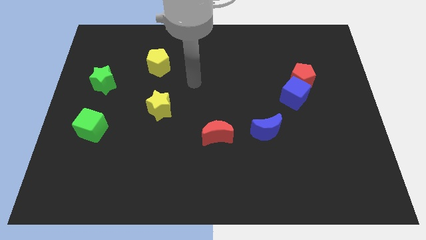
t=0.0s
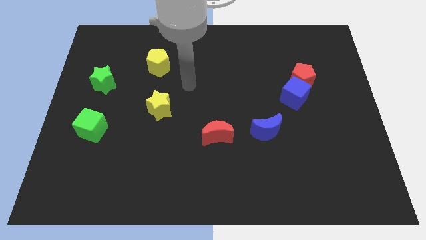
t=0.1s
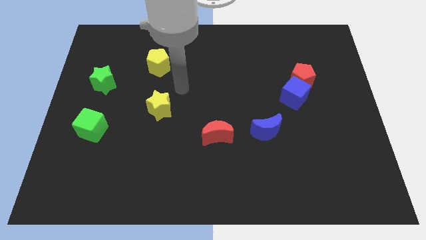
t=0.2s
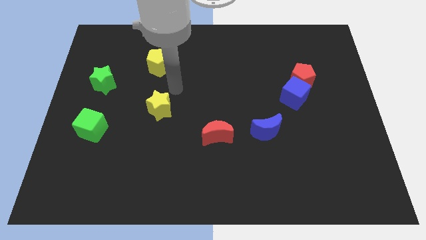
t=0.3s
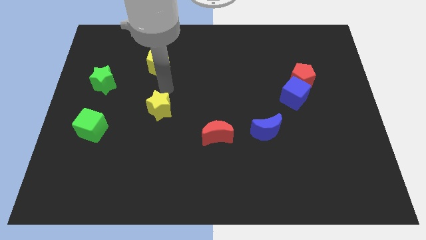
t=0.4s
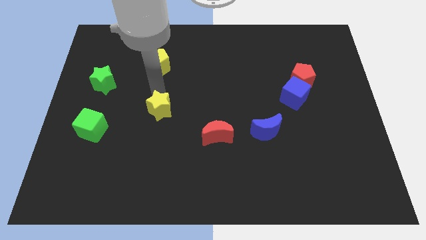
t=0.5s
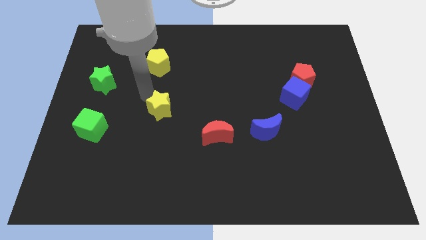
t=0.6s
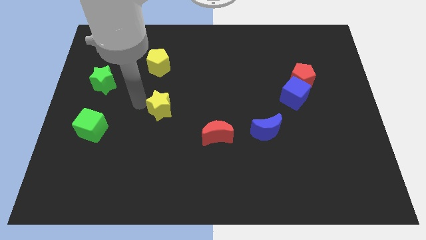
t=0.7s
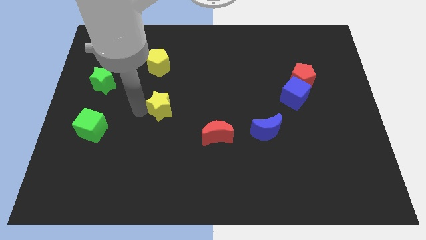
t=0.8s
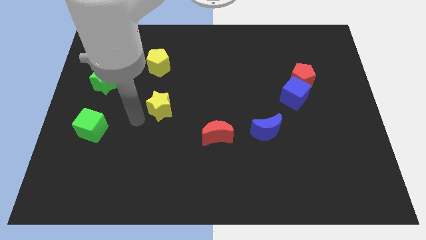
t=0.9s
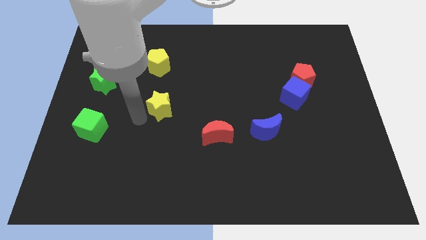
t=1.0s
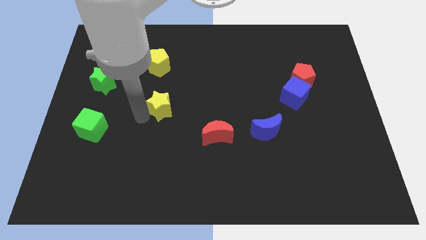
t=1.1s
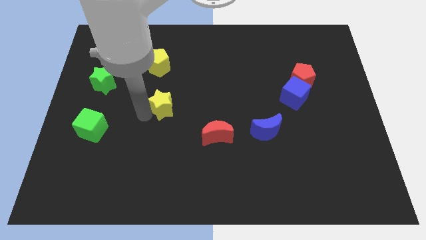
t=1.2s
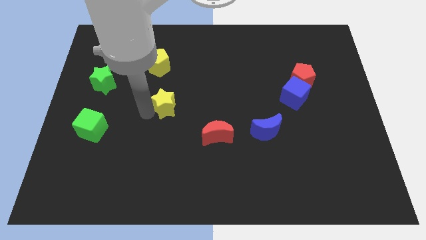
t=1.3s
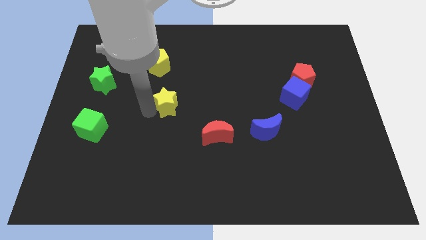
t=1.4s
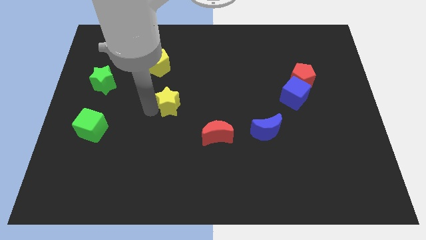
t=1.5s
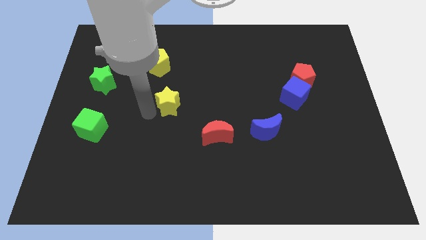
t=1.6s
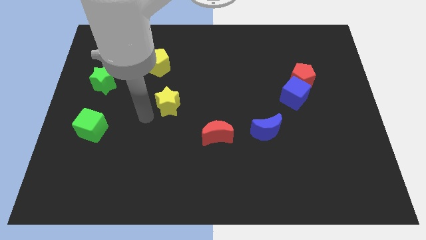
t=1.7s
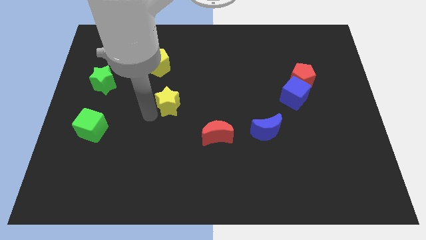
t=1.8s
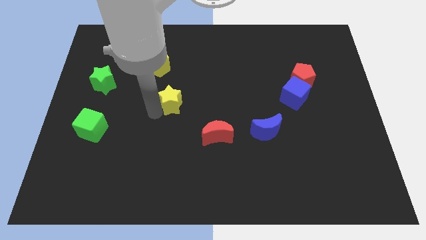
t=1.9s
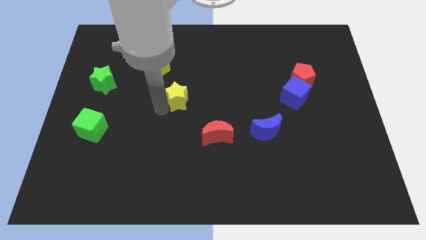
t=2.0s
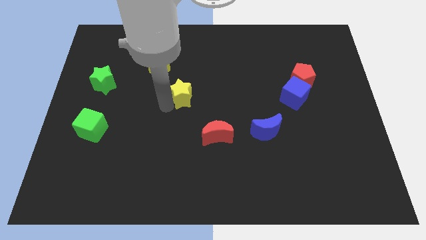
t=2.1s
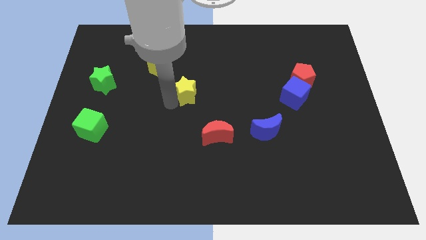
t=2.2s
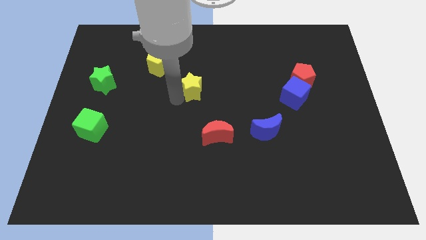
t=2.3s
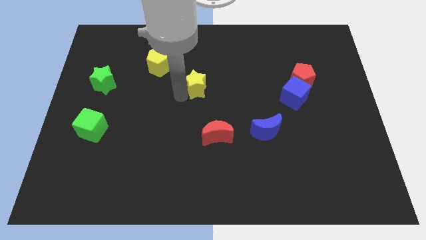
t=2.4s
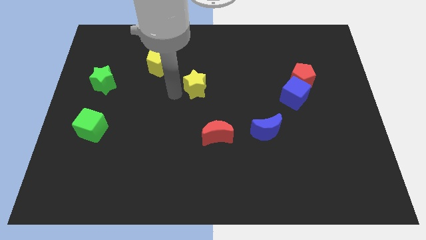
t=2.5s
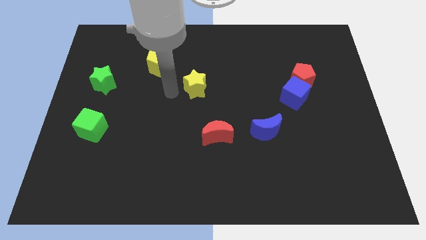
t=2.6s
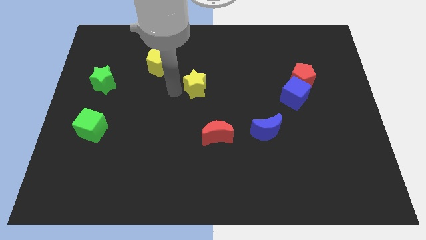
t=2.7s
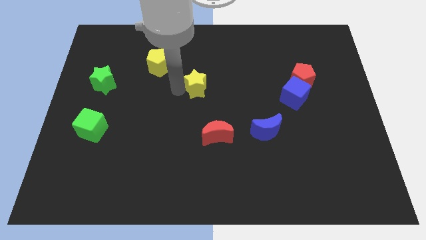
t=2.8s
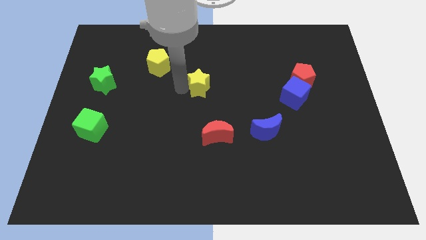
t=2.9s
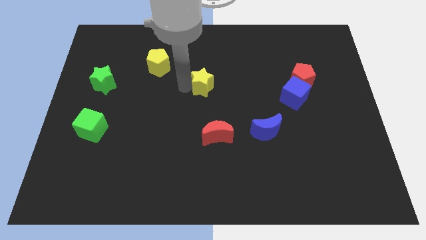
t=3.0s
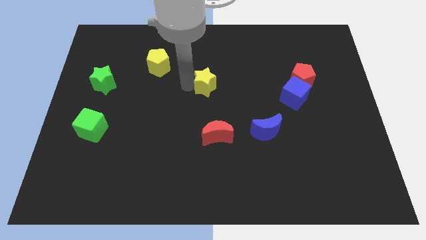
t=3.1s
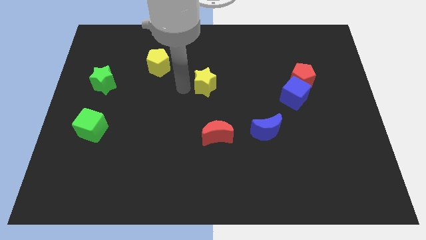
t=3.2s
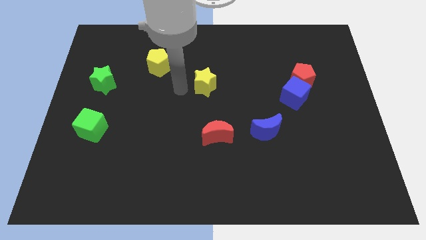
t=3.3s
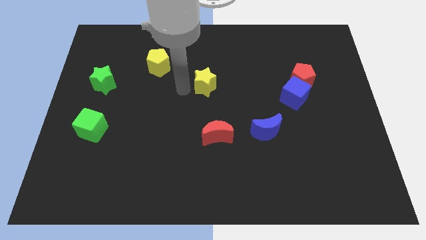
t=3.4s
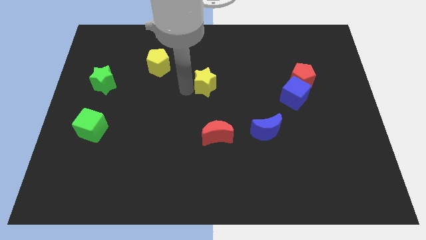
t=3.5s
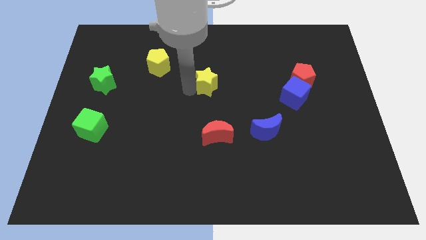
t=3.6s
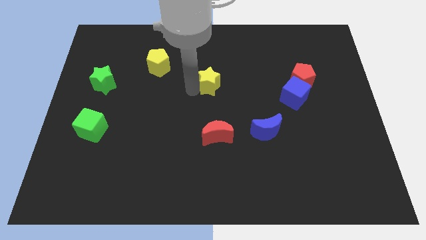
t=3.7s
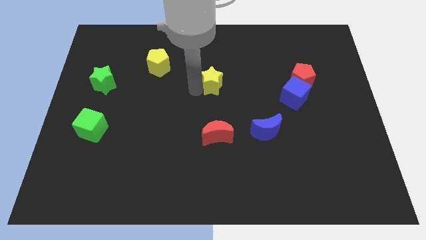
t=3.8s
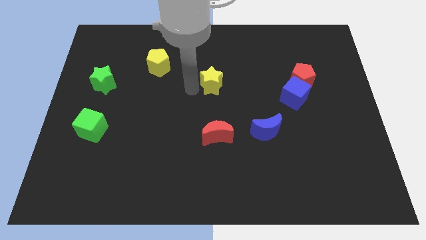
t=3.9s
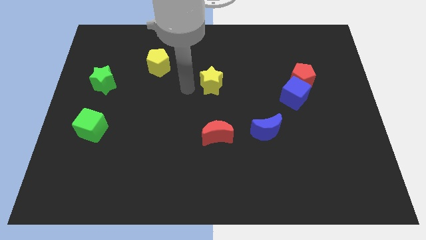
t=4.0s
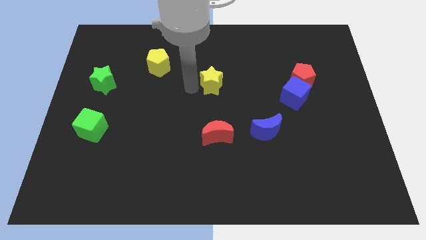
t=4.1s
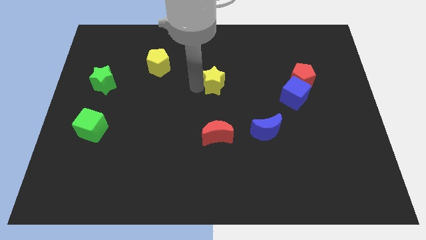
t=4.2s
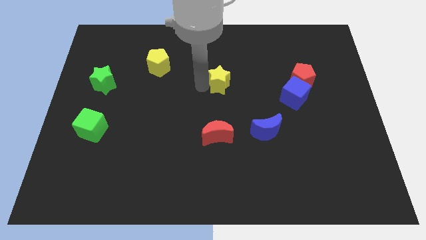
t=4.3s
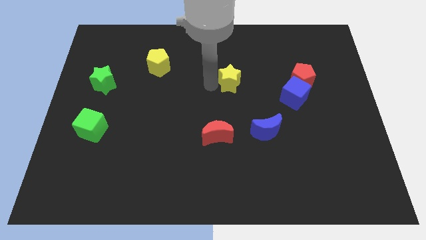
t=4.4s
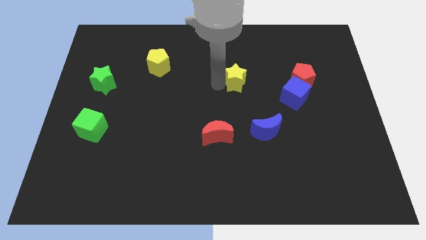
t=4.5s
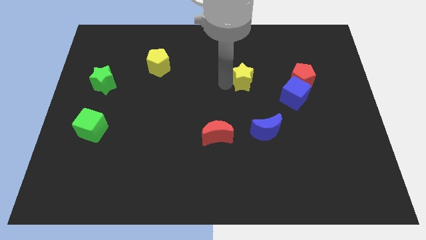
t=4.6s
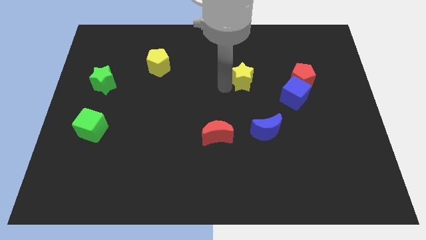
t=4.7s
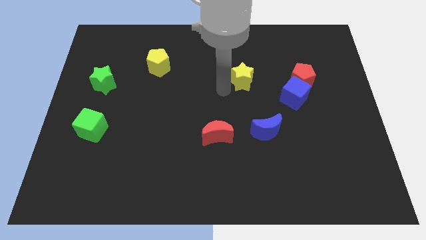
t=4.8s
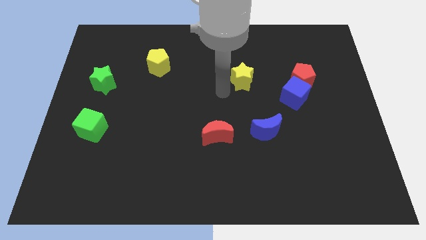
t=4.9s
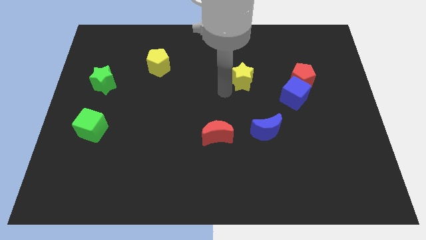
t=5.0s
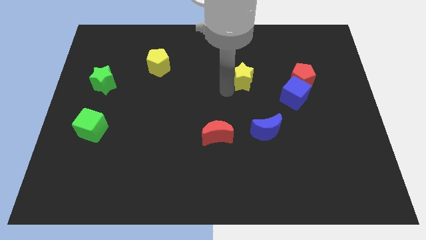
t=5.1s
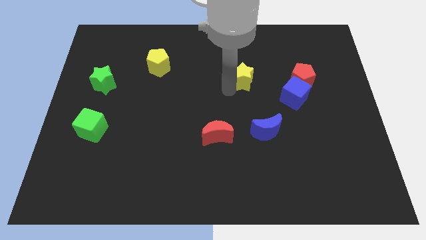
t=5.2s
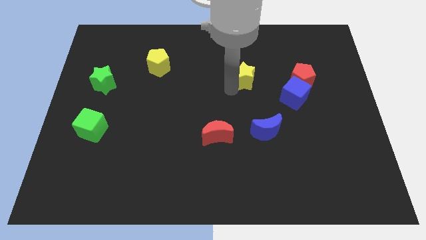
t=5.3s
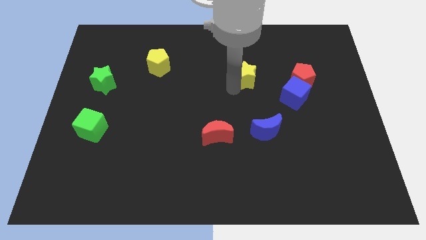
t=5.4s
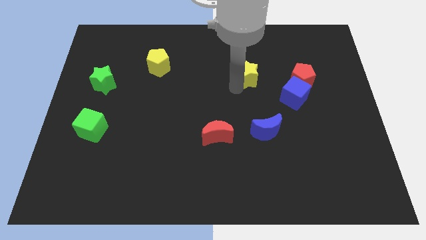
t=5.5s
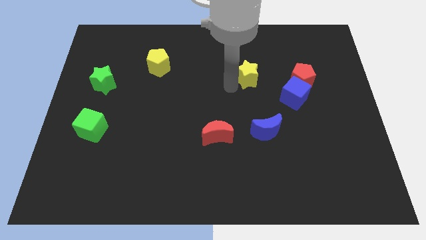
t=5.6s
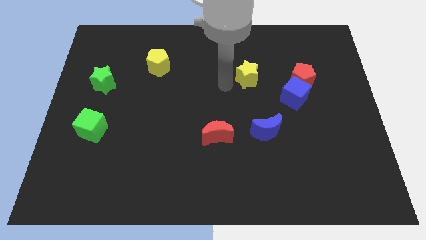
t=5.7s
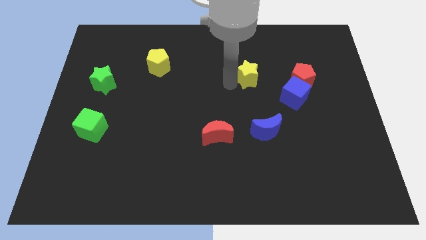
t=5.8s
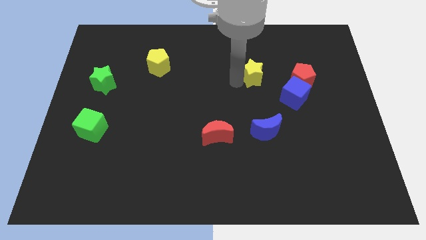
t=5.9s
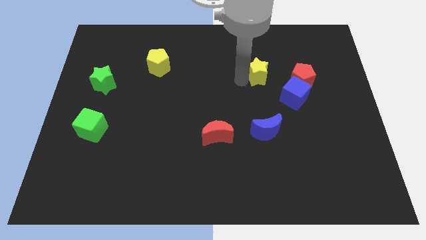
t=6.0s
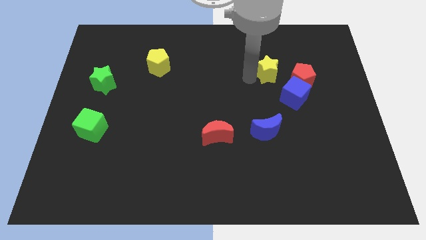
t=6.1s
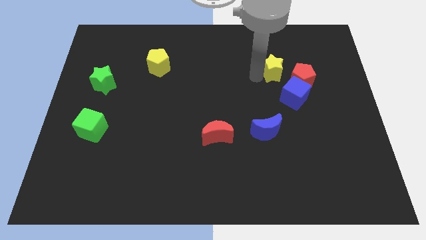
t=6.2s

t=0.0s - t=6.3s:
push the yellow star to the top side of the blue cube
